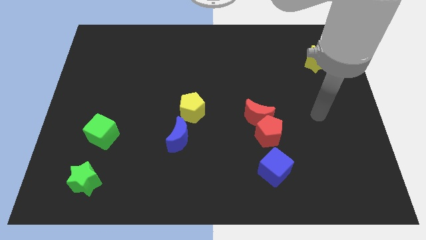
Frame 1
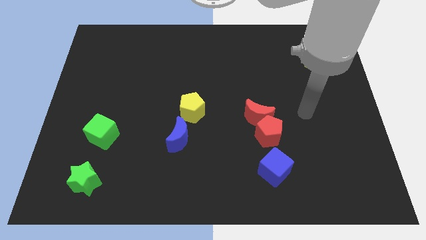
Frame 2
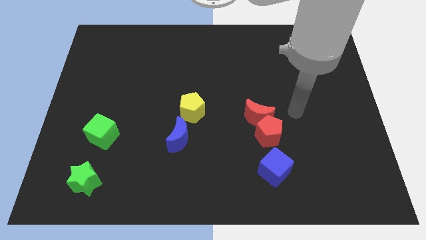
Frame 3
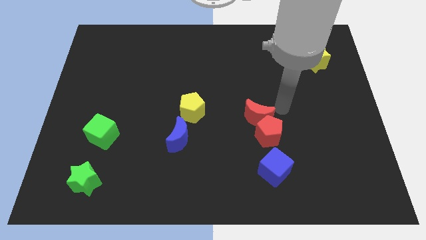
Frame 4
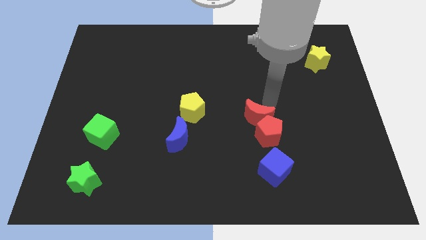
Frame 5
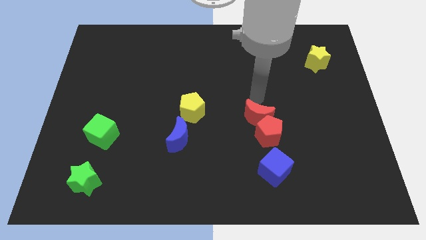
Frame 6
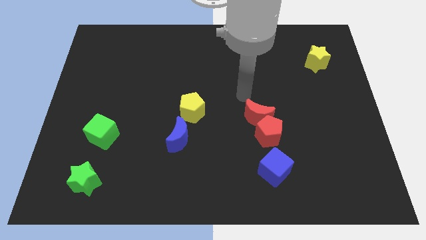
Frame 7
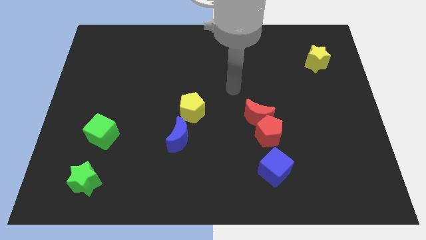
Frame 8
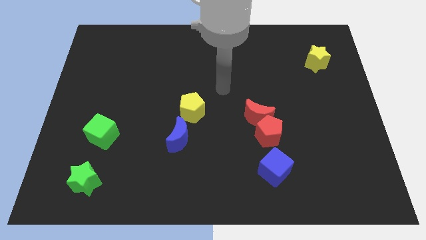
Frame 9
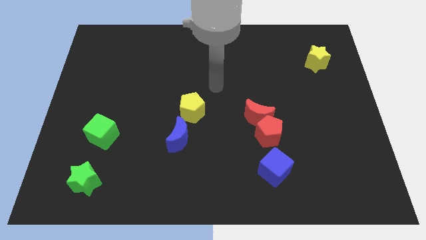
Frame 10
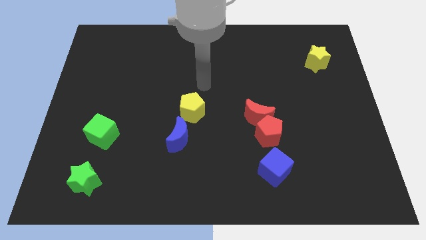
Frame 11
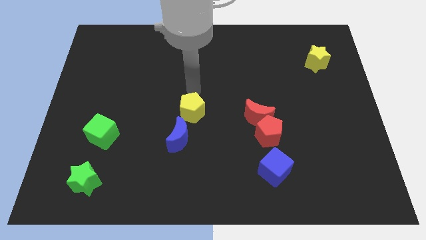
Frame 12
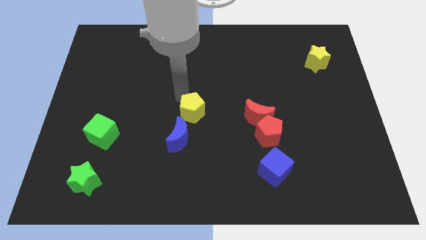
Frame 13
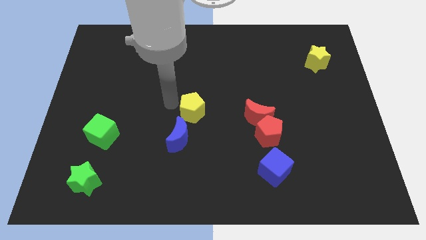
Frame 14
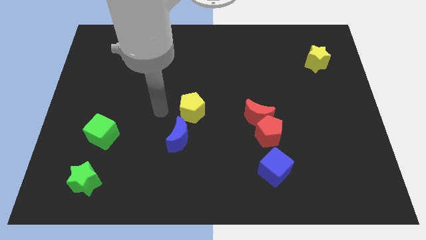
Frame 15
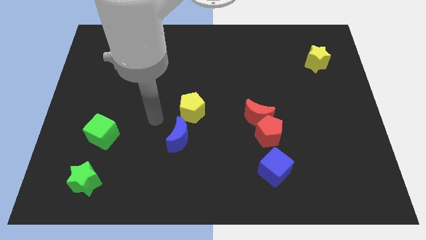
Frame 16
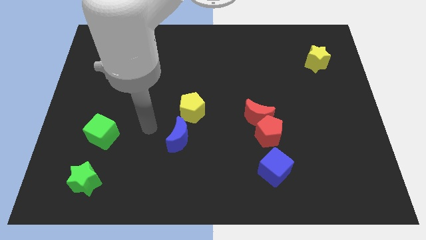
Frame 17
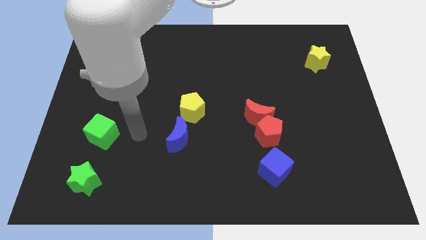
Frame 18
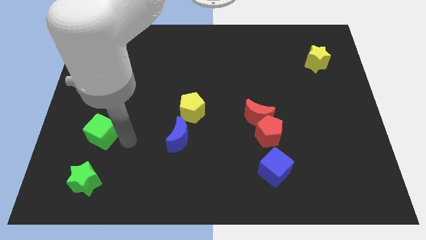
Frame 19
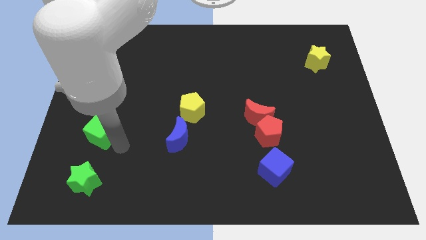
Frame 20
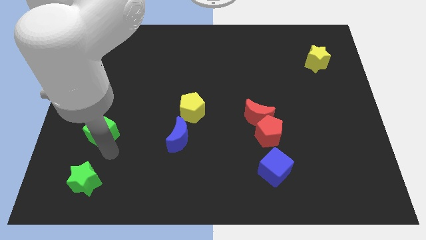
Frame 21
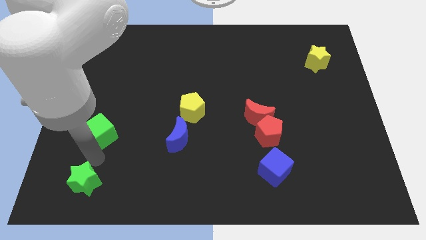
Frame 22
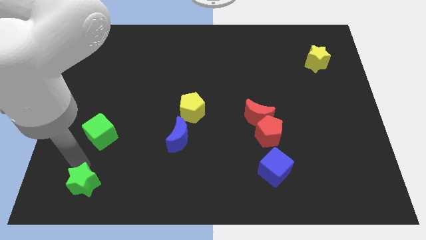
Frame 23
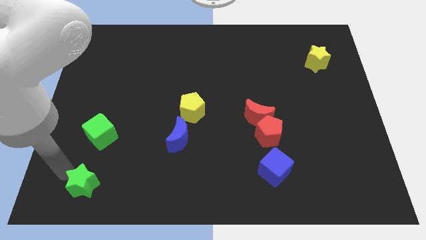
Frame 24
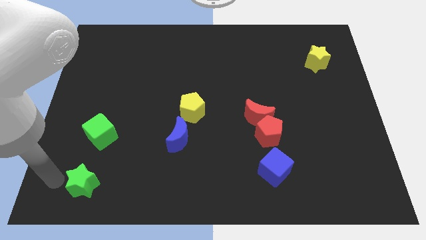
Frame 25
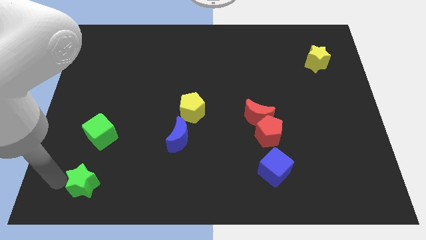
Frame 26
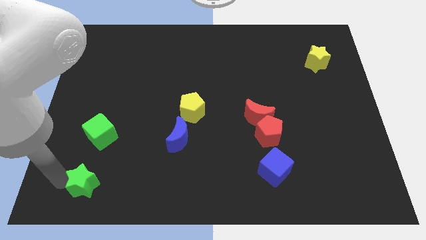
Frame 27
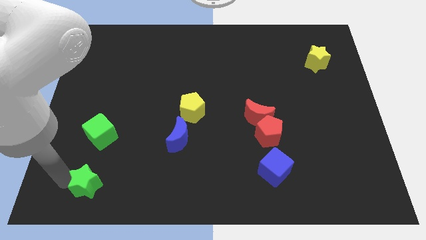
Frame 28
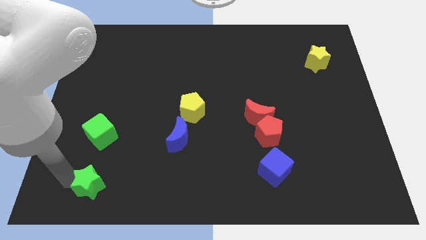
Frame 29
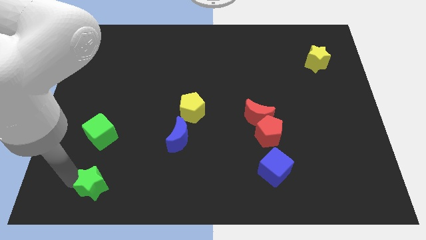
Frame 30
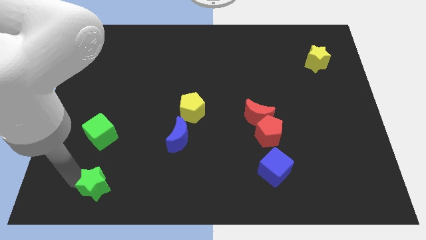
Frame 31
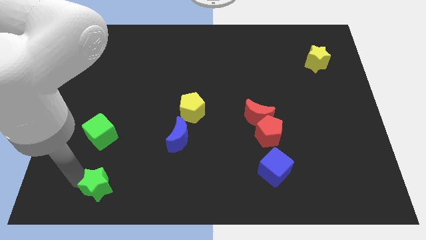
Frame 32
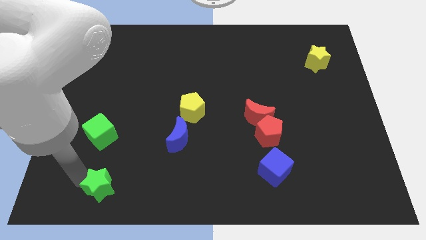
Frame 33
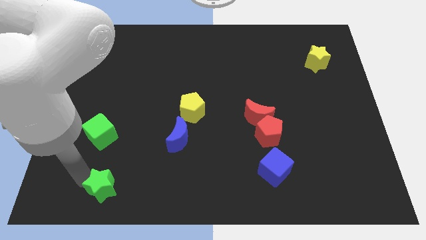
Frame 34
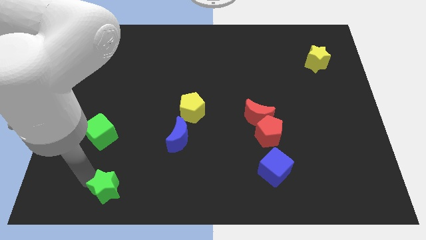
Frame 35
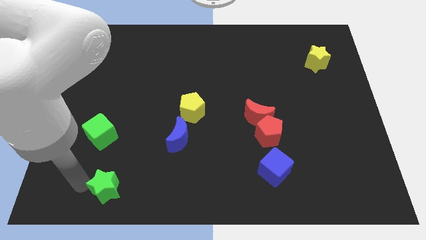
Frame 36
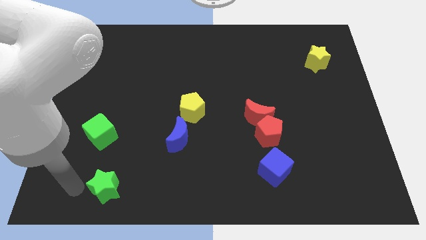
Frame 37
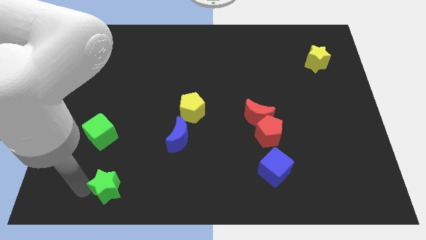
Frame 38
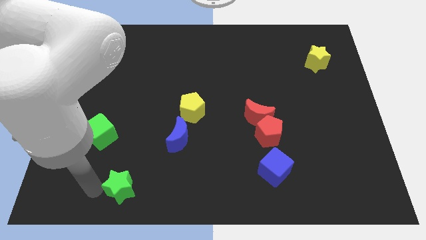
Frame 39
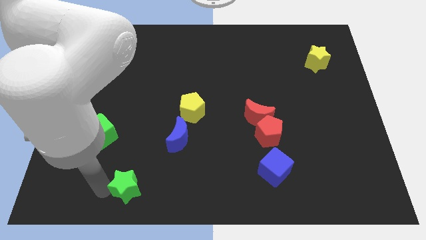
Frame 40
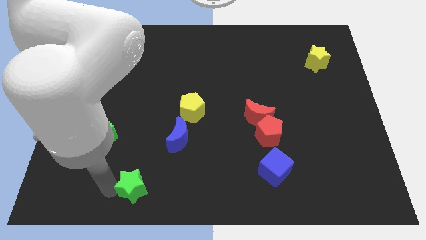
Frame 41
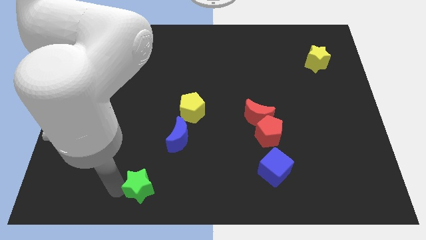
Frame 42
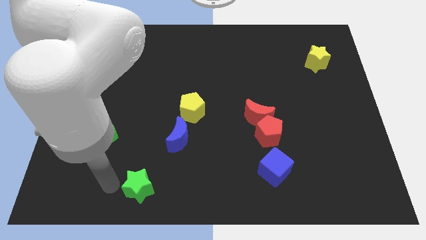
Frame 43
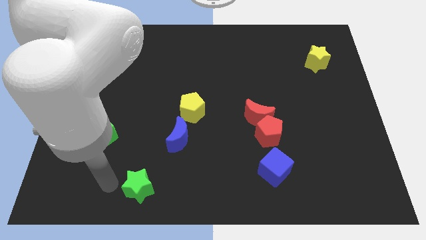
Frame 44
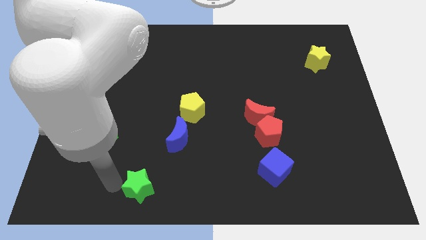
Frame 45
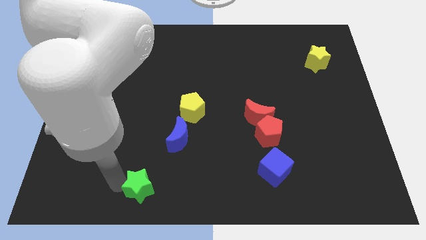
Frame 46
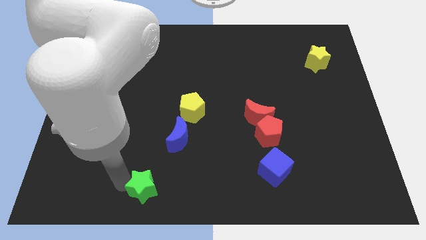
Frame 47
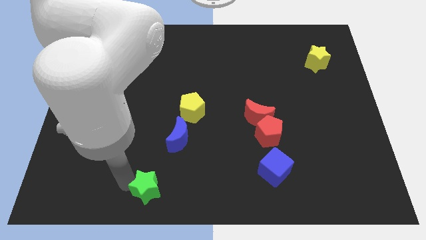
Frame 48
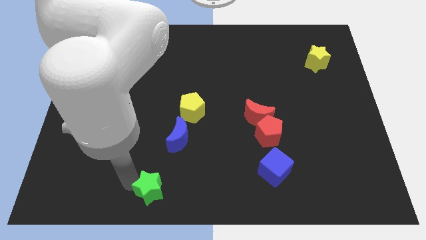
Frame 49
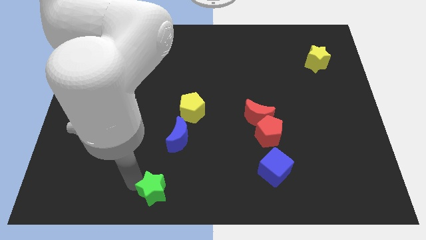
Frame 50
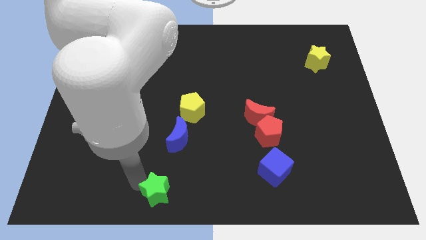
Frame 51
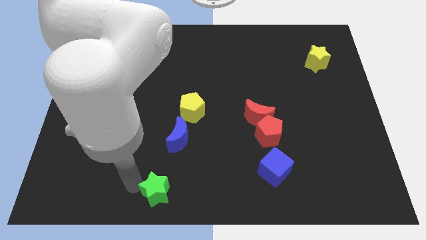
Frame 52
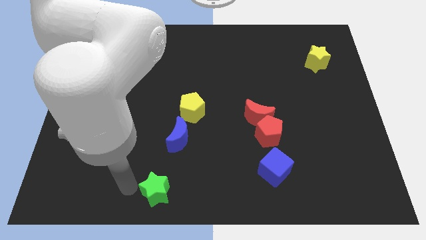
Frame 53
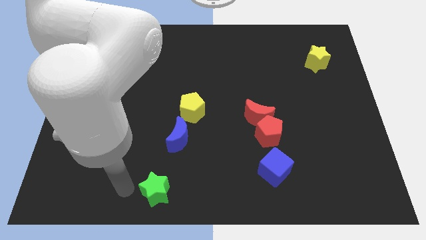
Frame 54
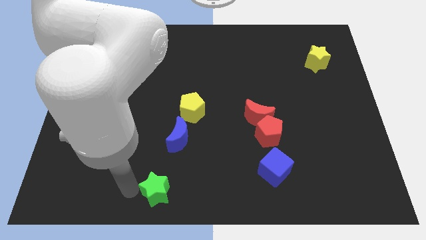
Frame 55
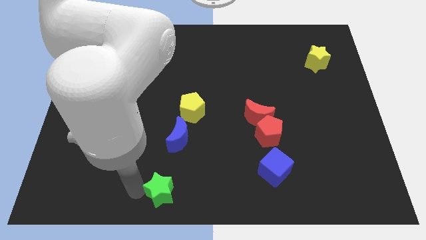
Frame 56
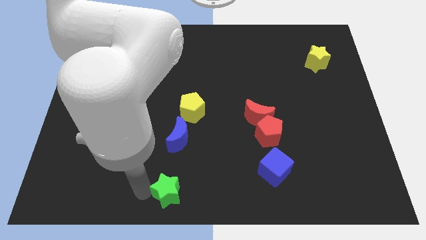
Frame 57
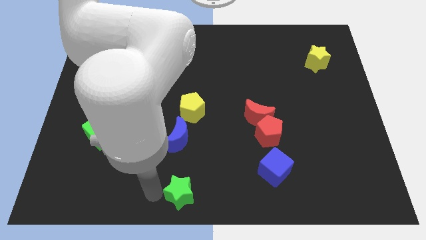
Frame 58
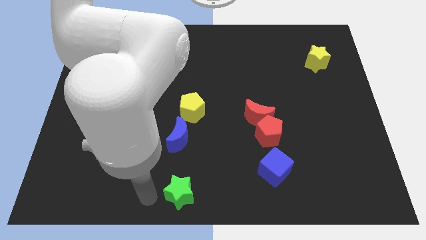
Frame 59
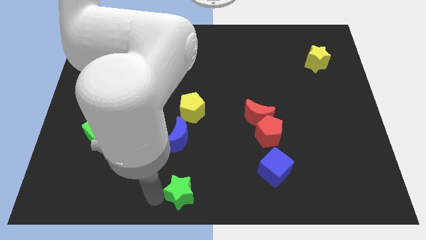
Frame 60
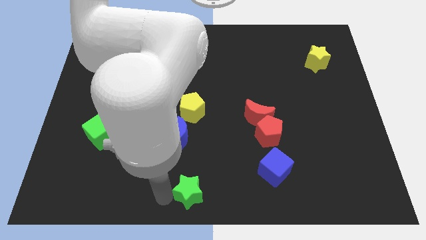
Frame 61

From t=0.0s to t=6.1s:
move the green star to the right

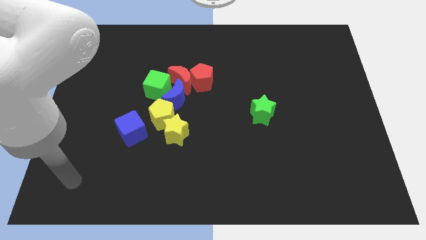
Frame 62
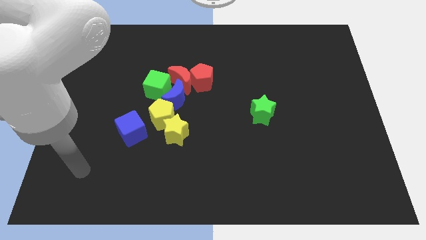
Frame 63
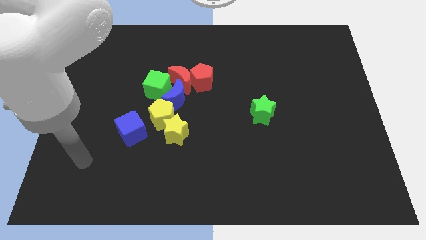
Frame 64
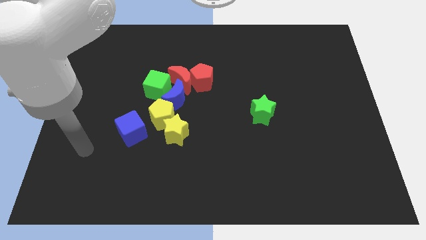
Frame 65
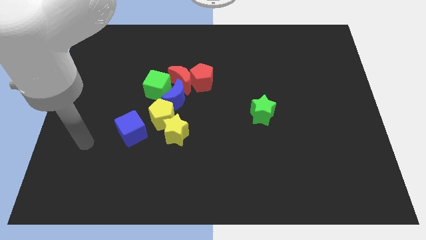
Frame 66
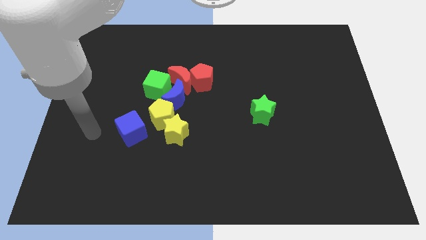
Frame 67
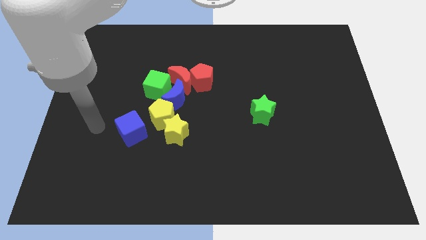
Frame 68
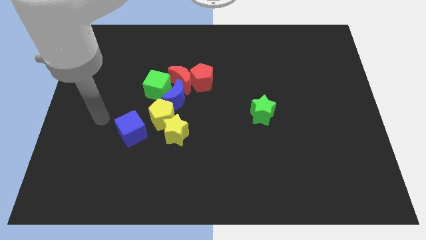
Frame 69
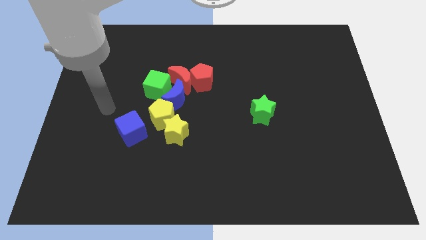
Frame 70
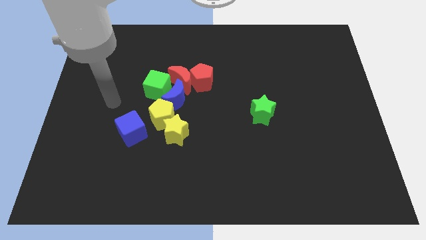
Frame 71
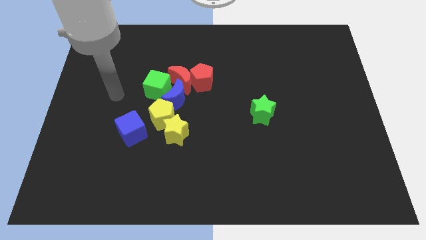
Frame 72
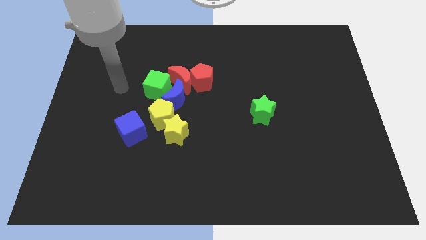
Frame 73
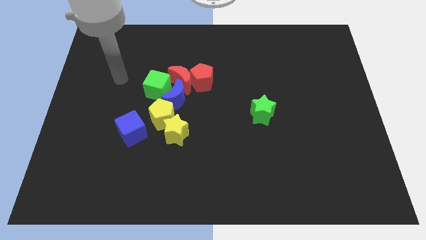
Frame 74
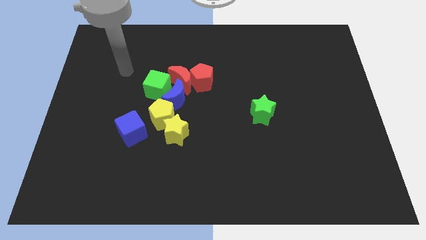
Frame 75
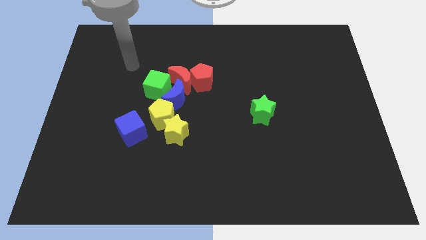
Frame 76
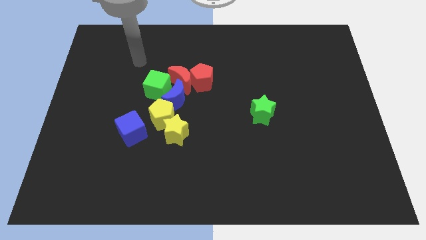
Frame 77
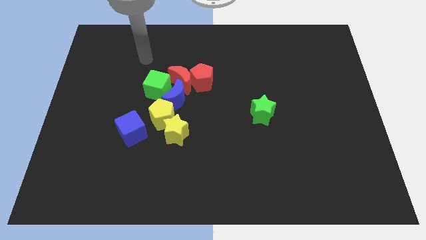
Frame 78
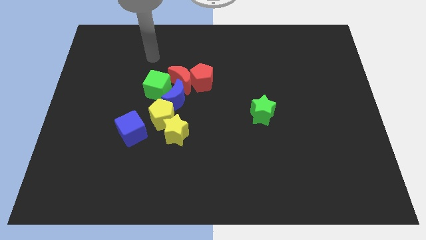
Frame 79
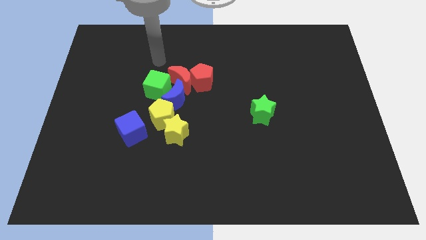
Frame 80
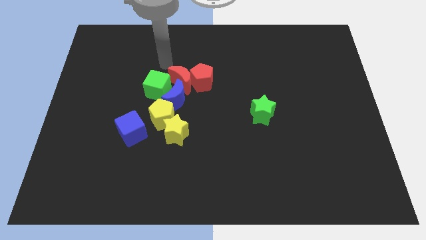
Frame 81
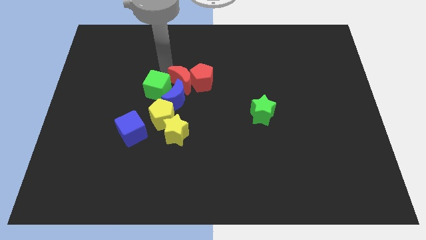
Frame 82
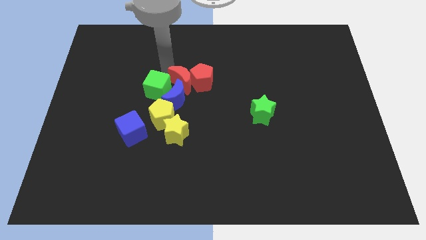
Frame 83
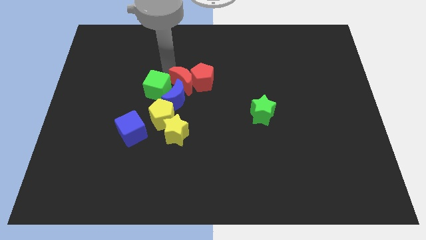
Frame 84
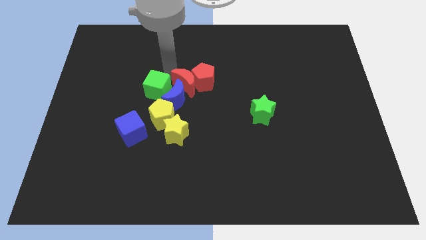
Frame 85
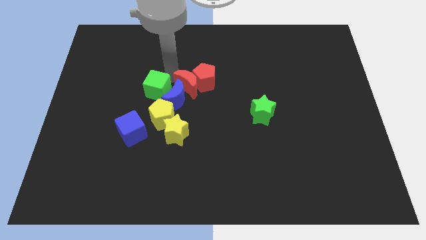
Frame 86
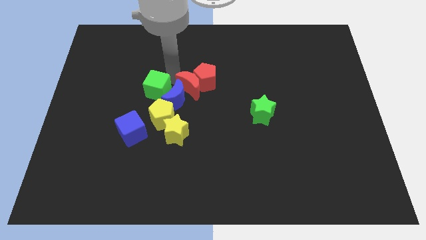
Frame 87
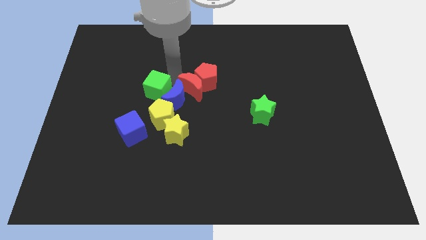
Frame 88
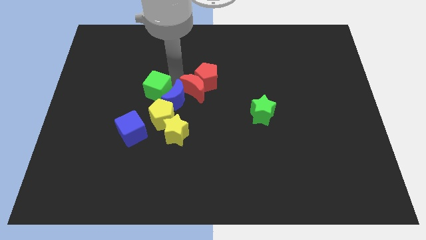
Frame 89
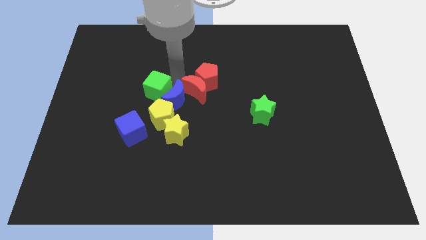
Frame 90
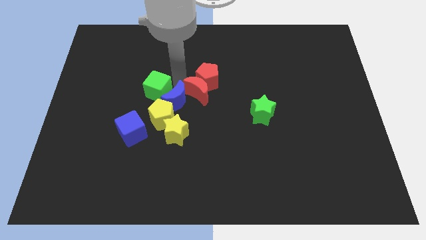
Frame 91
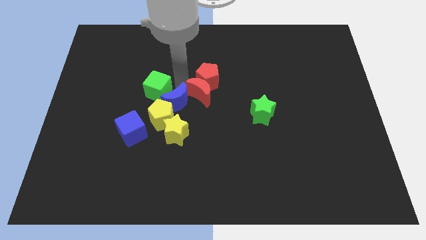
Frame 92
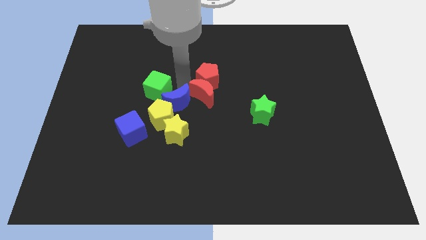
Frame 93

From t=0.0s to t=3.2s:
slightly push the red moon down and right diagonally
